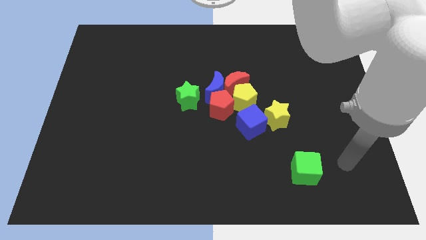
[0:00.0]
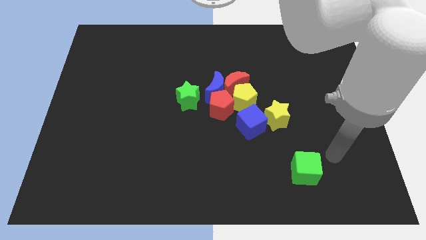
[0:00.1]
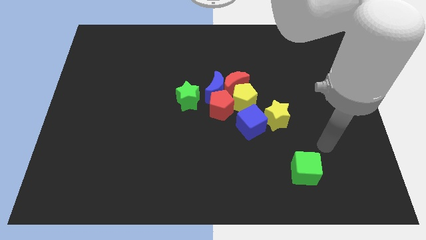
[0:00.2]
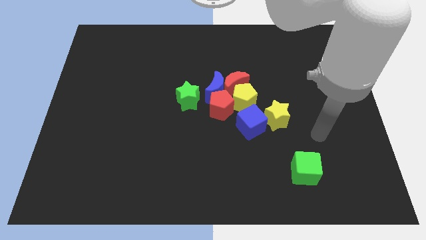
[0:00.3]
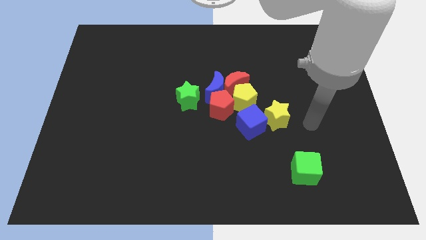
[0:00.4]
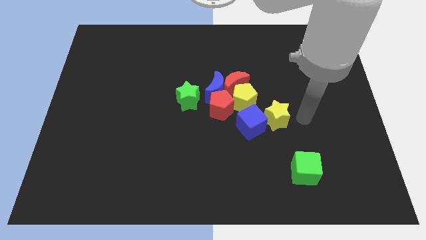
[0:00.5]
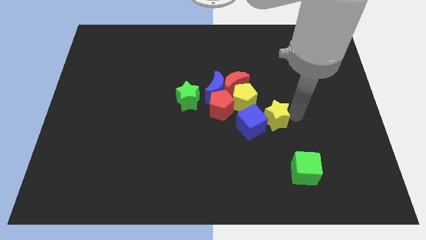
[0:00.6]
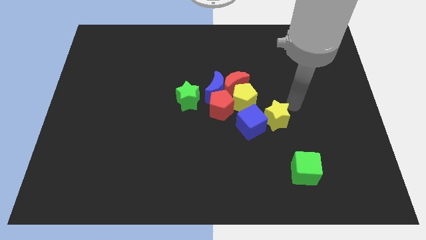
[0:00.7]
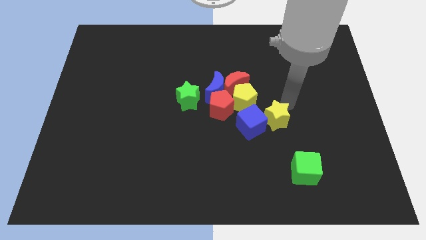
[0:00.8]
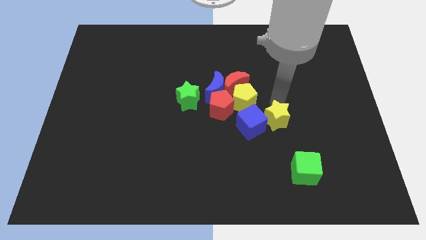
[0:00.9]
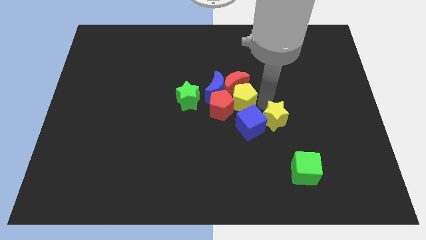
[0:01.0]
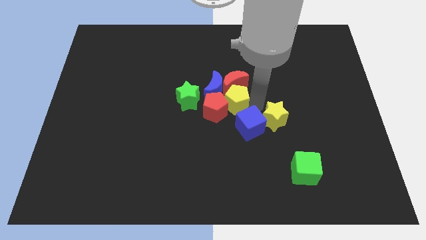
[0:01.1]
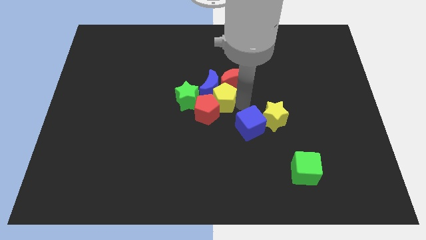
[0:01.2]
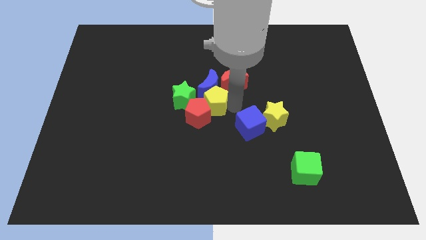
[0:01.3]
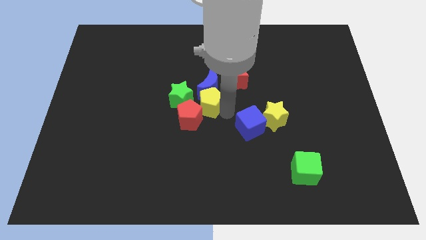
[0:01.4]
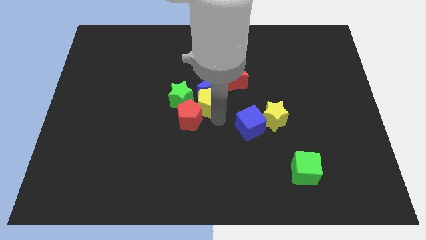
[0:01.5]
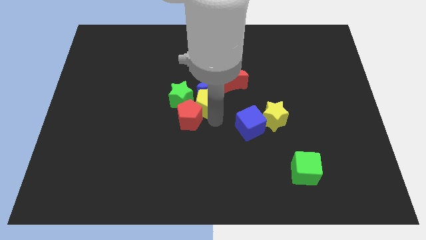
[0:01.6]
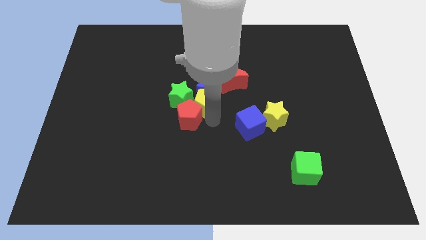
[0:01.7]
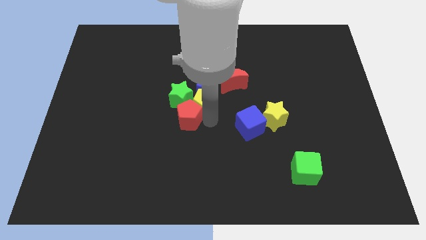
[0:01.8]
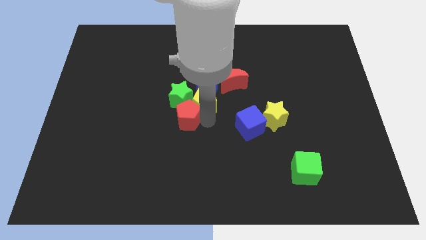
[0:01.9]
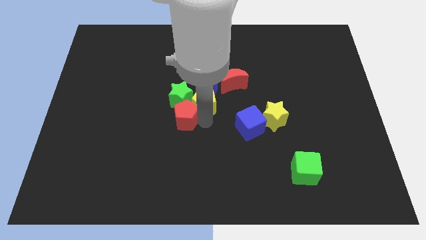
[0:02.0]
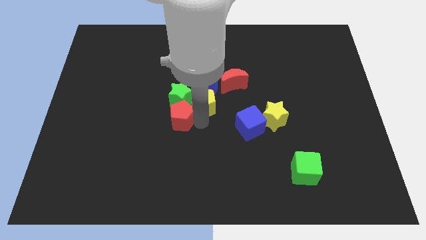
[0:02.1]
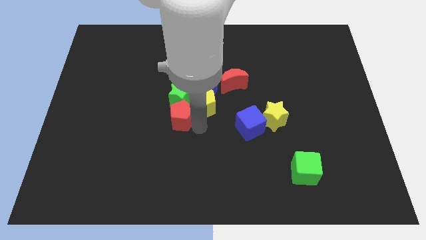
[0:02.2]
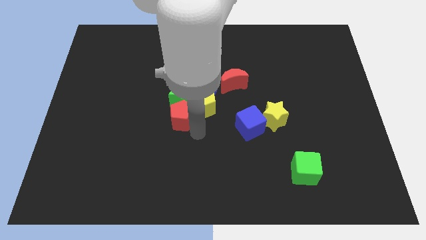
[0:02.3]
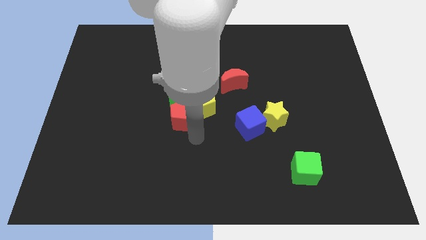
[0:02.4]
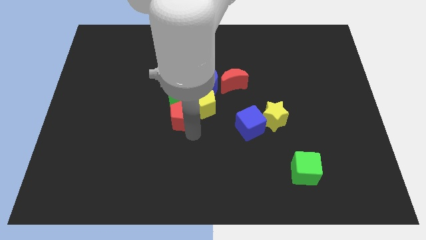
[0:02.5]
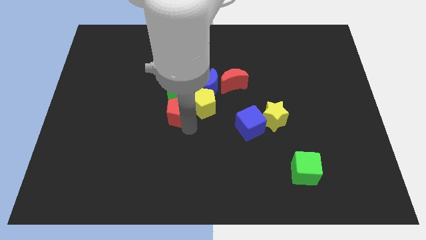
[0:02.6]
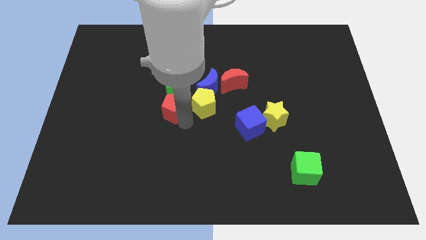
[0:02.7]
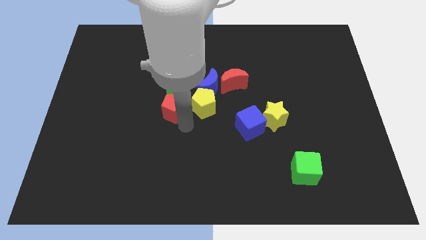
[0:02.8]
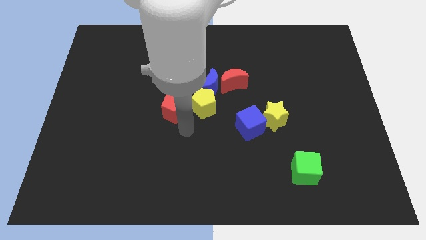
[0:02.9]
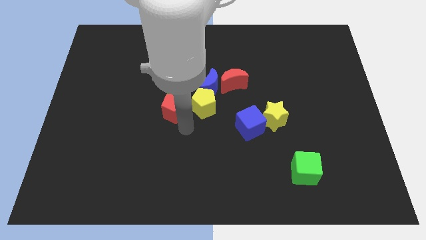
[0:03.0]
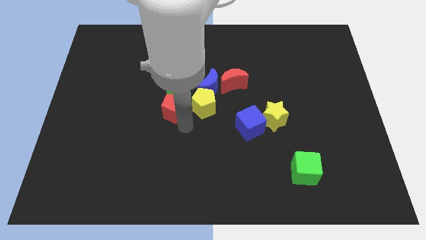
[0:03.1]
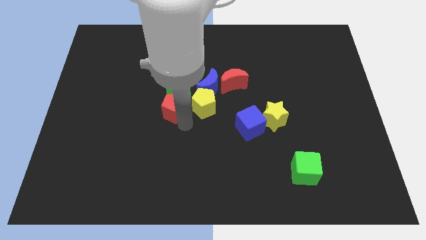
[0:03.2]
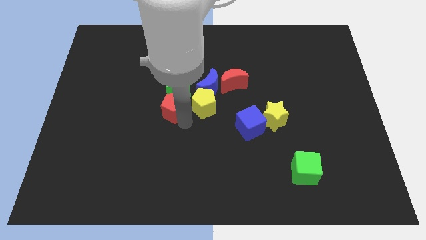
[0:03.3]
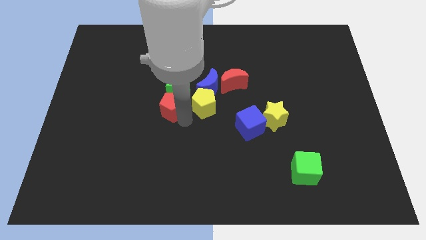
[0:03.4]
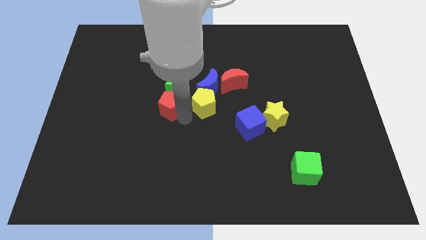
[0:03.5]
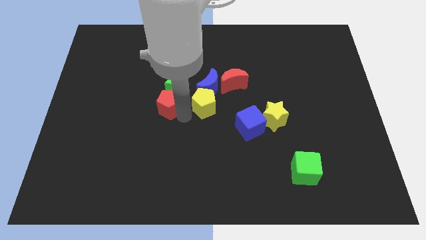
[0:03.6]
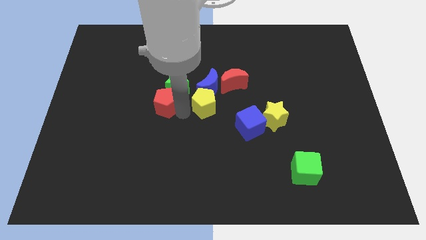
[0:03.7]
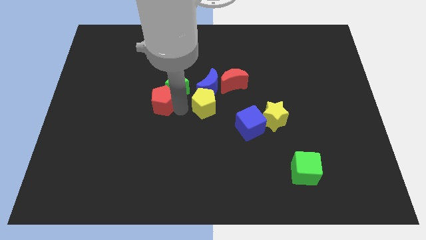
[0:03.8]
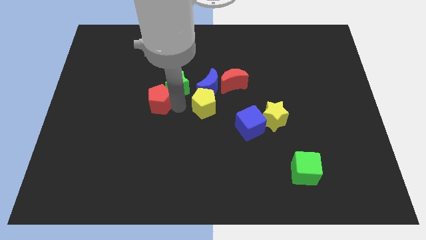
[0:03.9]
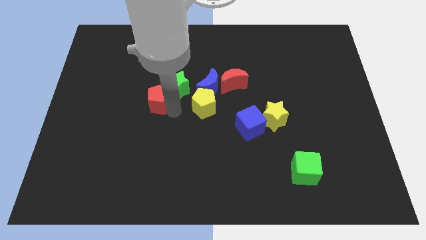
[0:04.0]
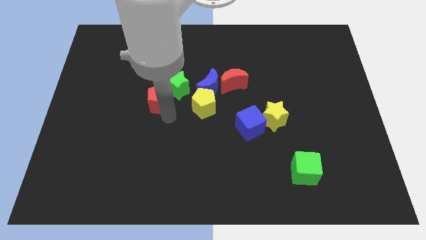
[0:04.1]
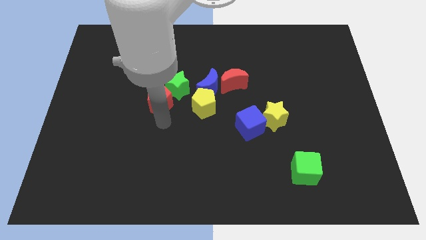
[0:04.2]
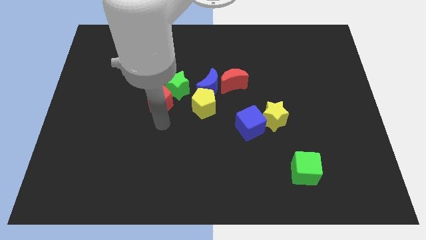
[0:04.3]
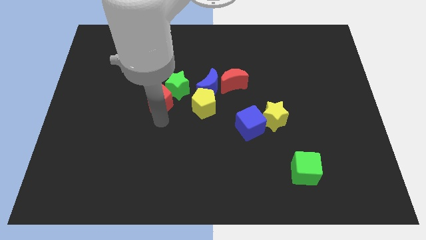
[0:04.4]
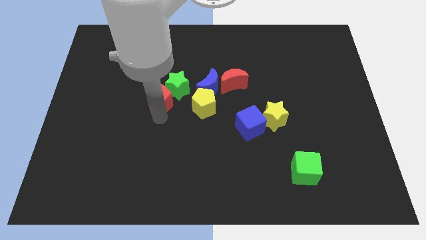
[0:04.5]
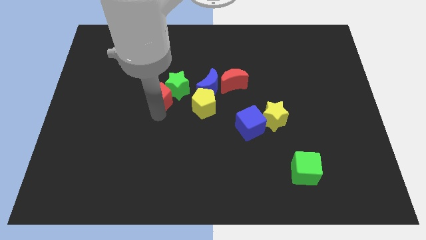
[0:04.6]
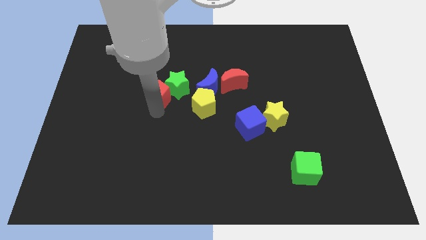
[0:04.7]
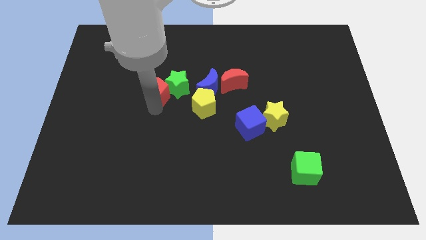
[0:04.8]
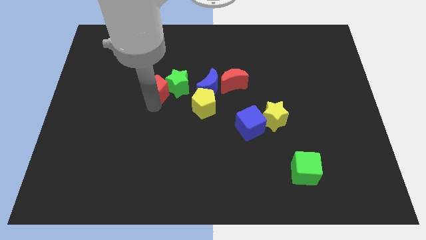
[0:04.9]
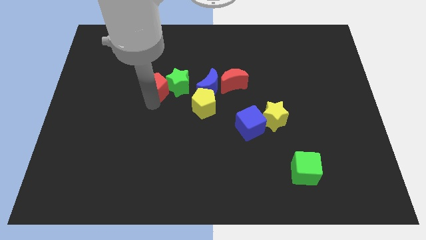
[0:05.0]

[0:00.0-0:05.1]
move the red pentagon to the top left of the green star

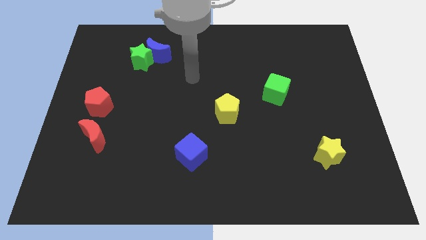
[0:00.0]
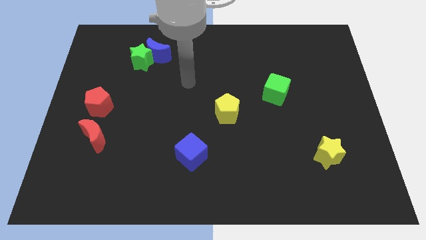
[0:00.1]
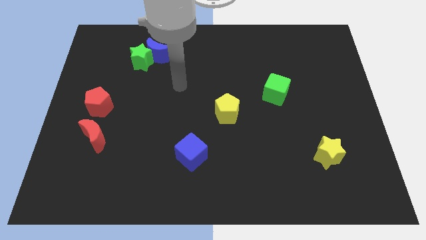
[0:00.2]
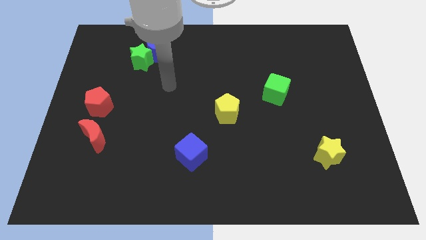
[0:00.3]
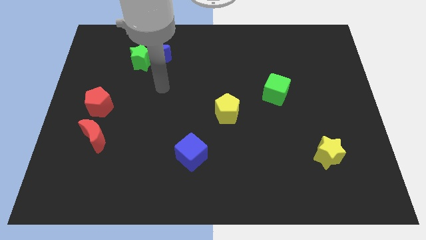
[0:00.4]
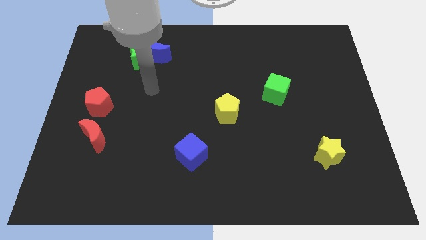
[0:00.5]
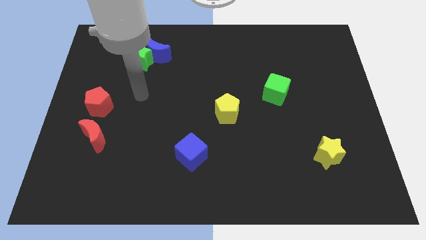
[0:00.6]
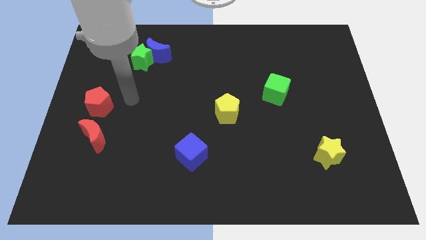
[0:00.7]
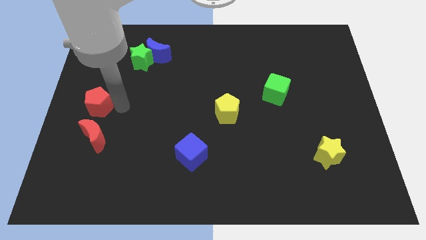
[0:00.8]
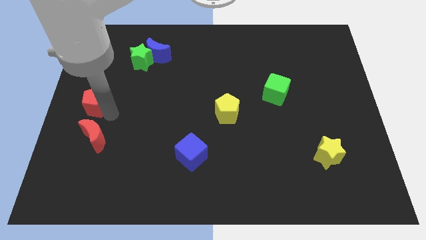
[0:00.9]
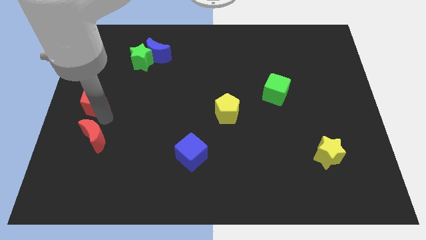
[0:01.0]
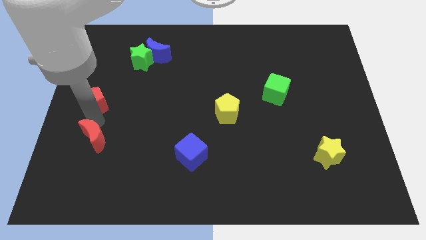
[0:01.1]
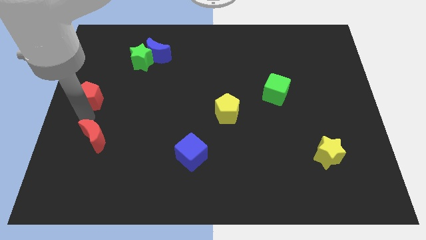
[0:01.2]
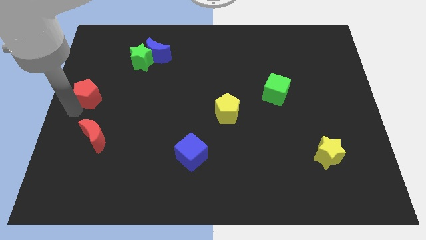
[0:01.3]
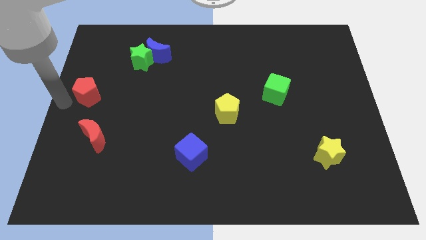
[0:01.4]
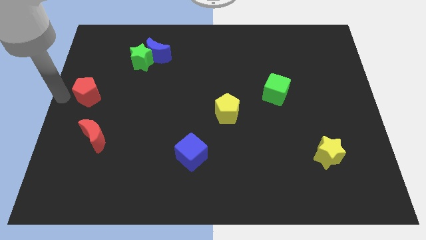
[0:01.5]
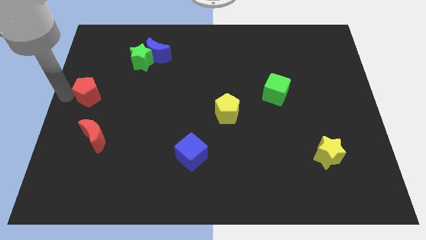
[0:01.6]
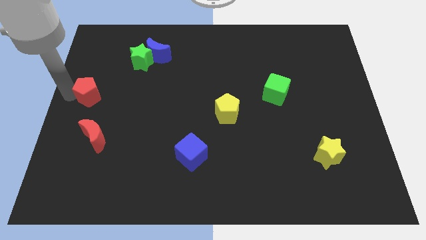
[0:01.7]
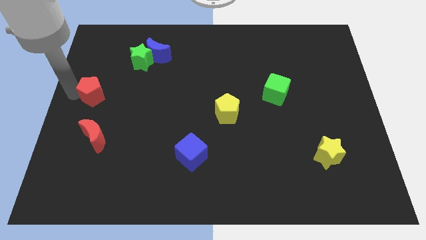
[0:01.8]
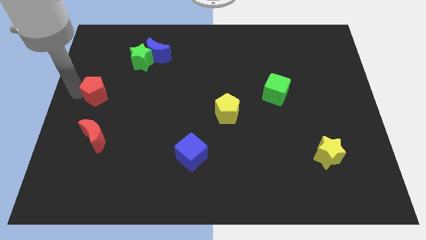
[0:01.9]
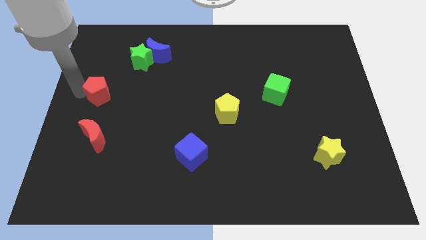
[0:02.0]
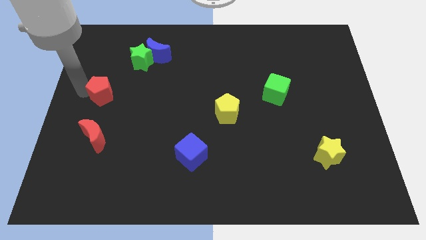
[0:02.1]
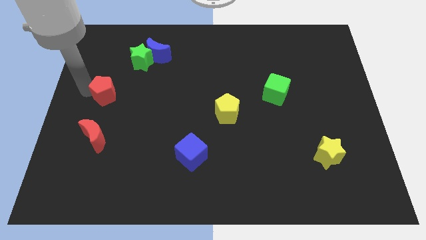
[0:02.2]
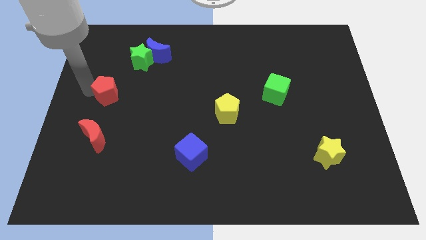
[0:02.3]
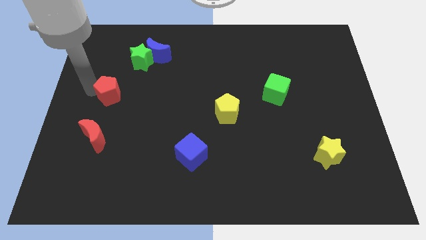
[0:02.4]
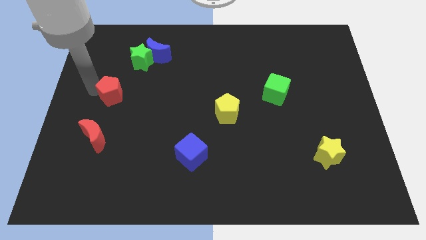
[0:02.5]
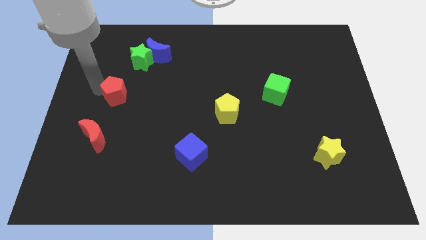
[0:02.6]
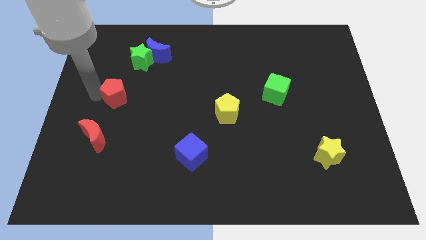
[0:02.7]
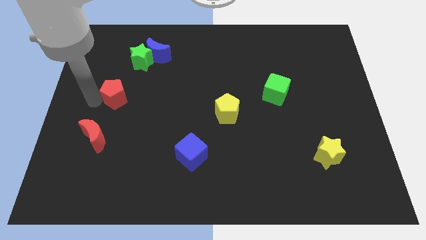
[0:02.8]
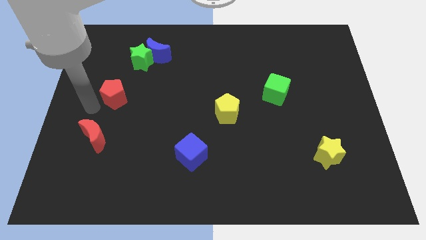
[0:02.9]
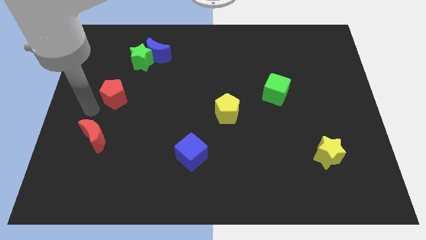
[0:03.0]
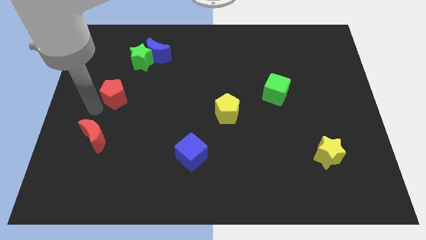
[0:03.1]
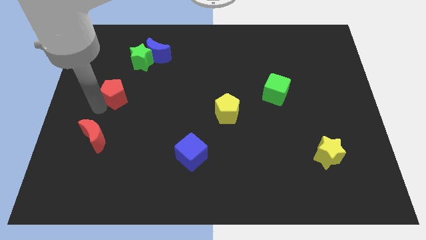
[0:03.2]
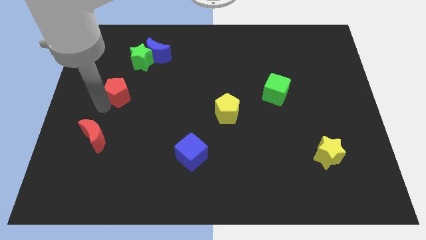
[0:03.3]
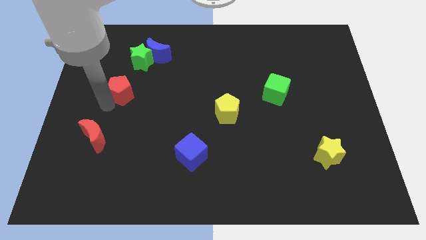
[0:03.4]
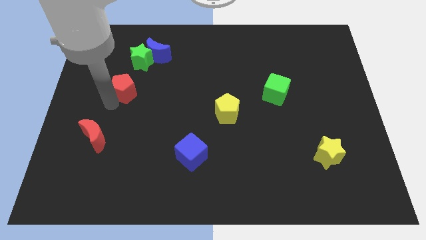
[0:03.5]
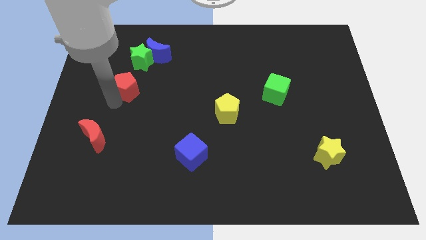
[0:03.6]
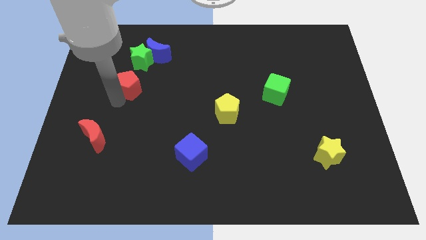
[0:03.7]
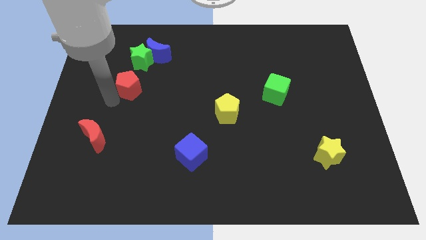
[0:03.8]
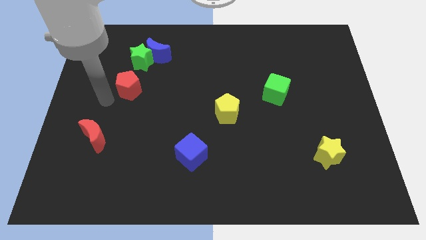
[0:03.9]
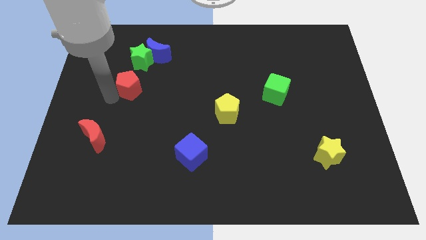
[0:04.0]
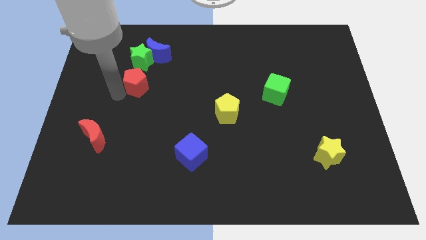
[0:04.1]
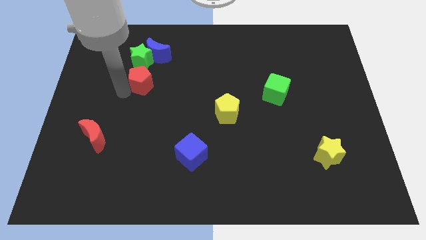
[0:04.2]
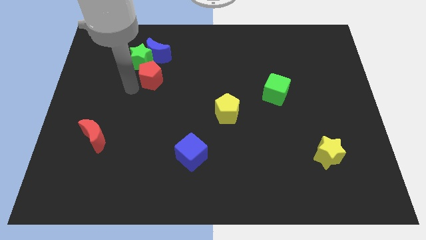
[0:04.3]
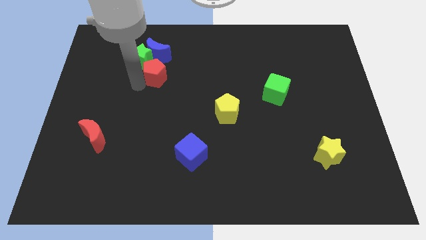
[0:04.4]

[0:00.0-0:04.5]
move the red pentagon to the bottom right of the blue moon
